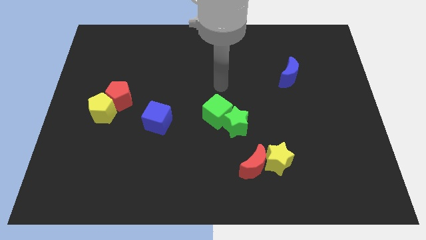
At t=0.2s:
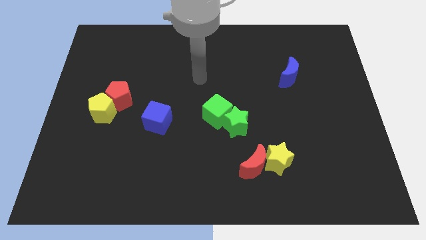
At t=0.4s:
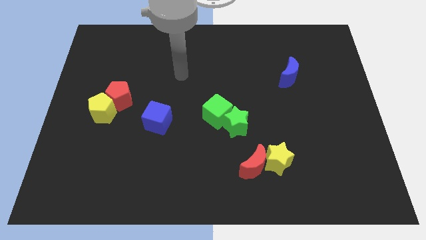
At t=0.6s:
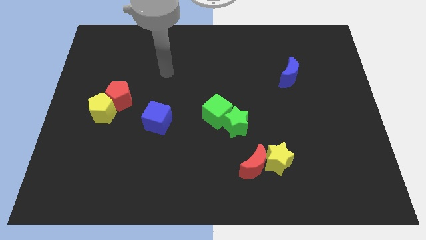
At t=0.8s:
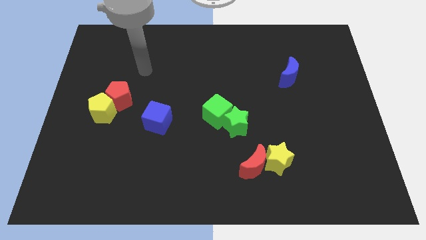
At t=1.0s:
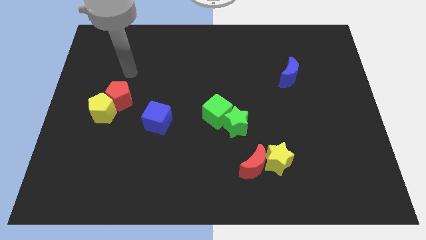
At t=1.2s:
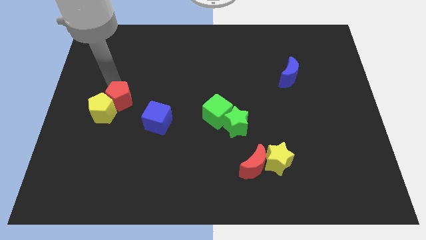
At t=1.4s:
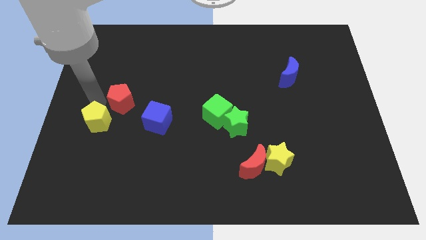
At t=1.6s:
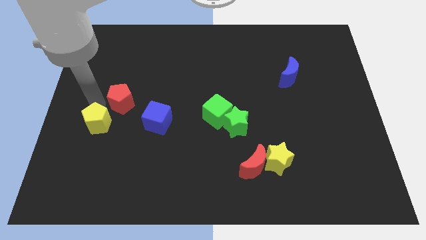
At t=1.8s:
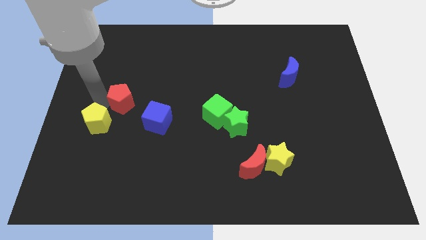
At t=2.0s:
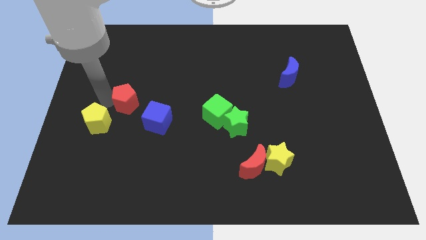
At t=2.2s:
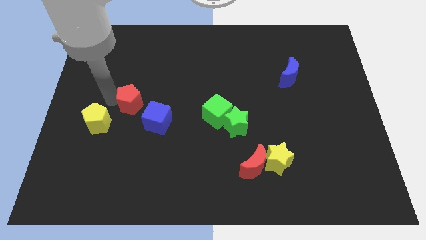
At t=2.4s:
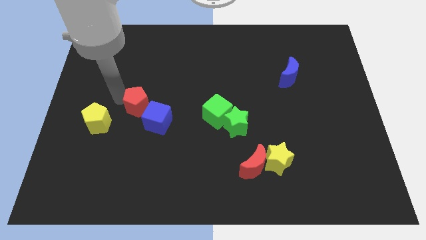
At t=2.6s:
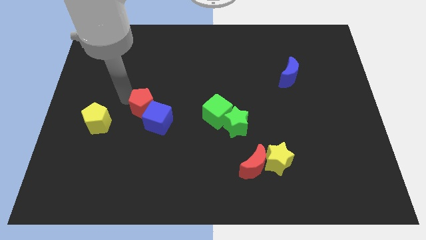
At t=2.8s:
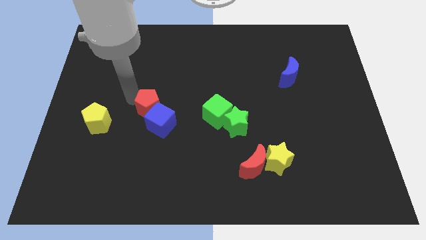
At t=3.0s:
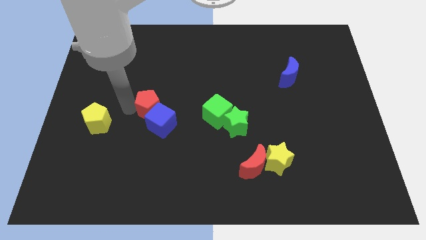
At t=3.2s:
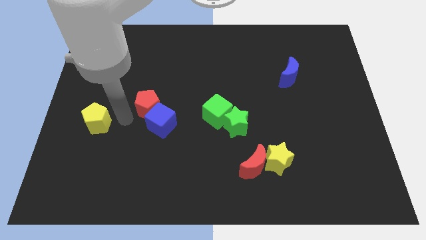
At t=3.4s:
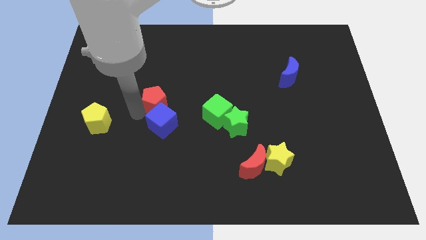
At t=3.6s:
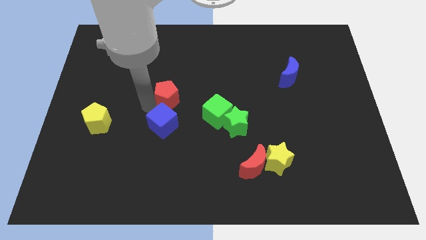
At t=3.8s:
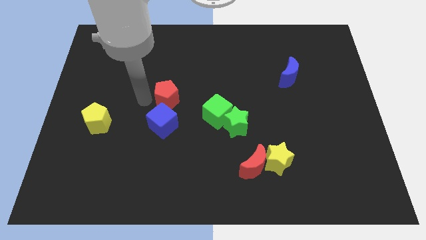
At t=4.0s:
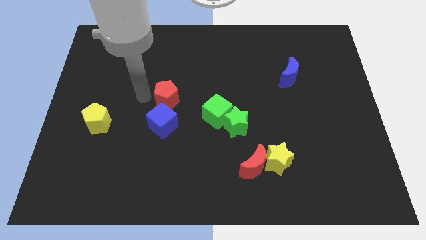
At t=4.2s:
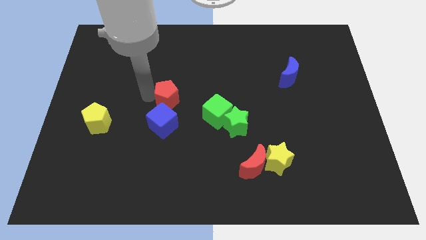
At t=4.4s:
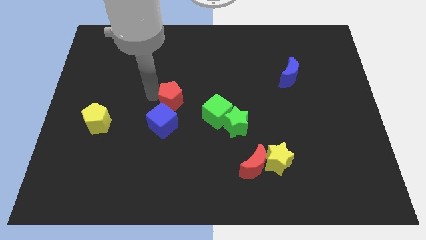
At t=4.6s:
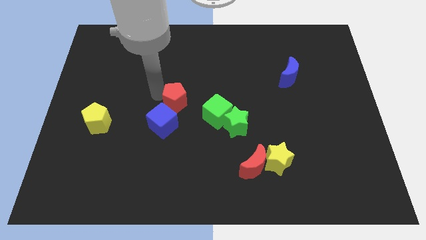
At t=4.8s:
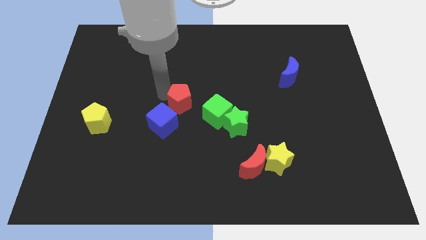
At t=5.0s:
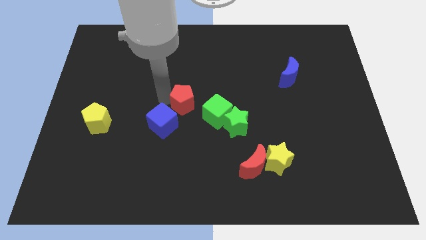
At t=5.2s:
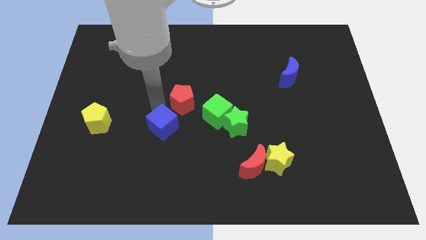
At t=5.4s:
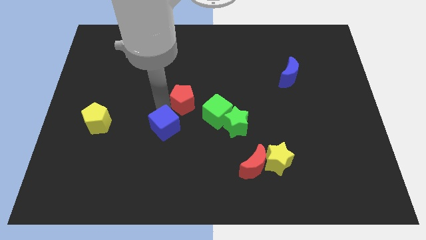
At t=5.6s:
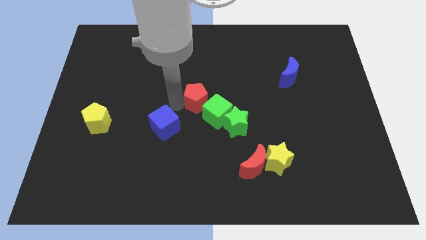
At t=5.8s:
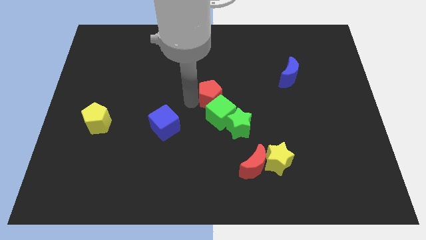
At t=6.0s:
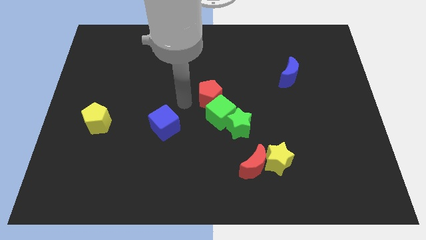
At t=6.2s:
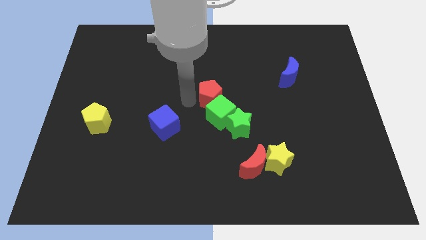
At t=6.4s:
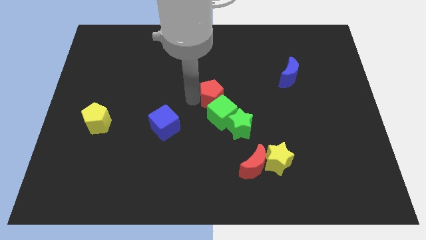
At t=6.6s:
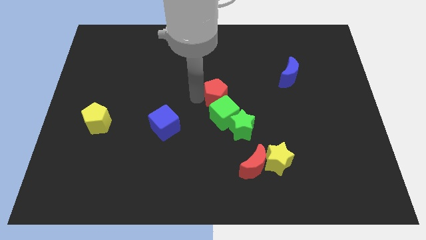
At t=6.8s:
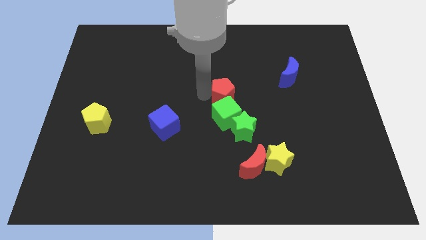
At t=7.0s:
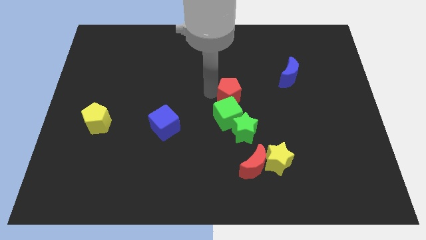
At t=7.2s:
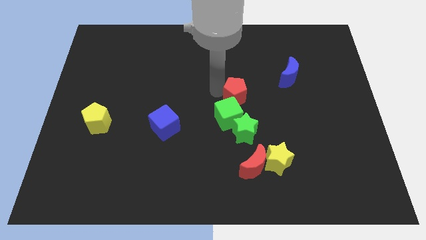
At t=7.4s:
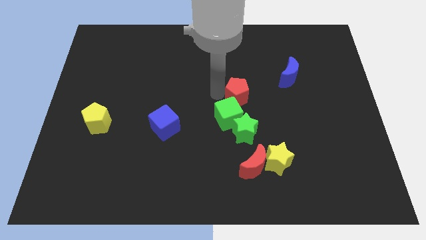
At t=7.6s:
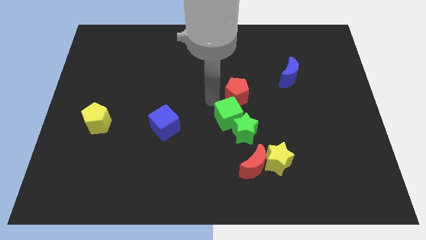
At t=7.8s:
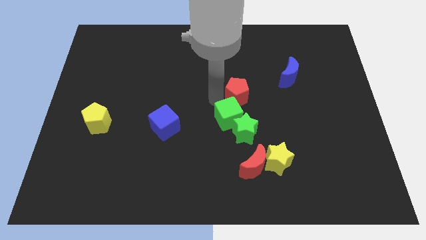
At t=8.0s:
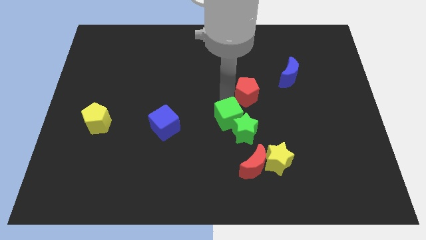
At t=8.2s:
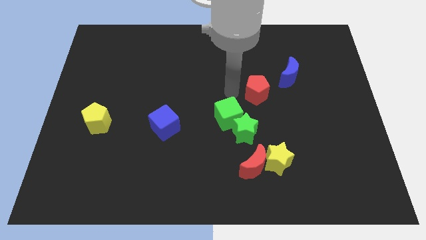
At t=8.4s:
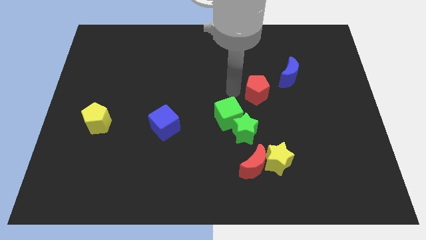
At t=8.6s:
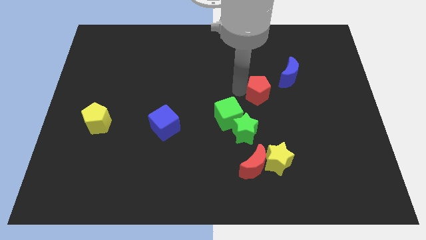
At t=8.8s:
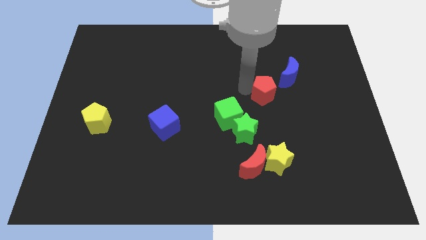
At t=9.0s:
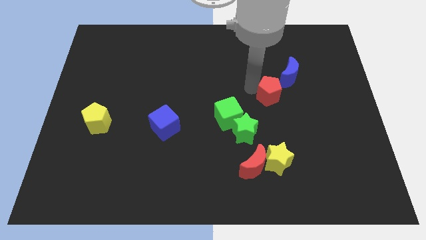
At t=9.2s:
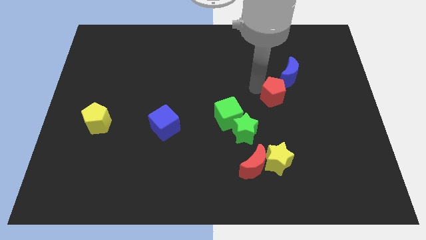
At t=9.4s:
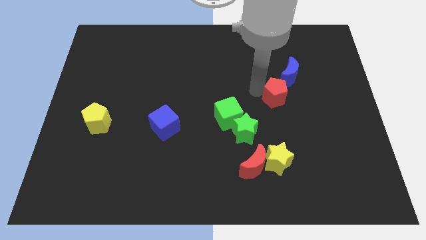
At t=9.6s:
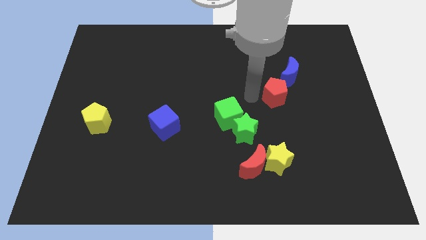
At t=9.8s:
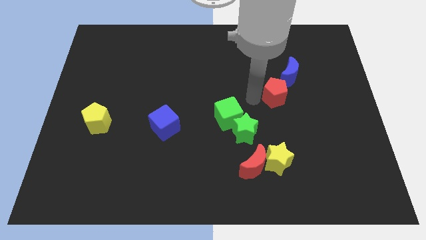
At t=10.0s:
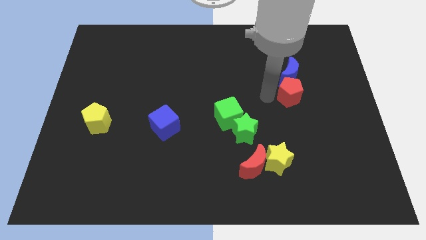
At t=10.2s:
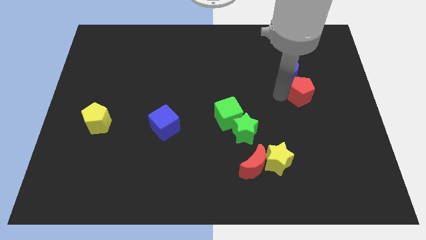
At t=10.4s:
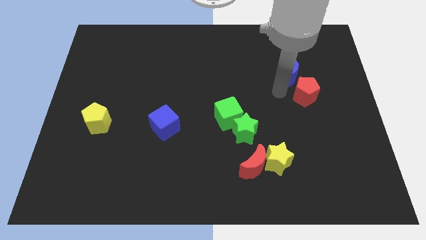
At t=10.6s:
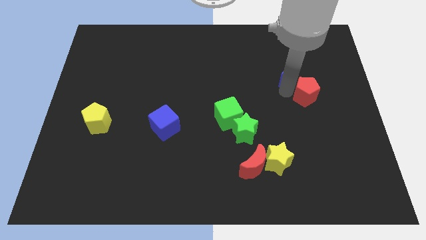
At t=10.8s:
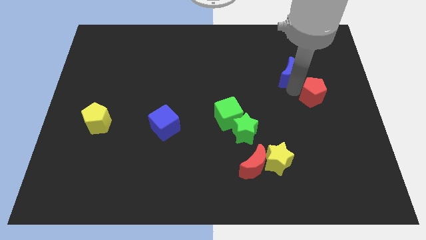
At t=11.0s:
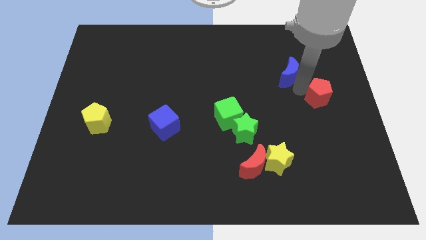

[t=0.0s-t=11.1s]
put the red pentagon to the center right

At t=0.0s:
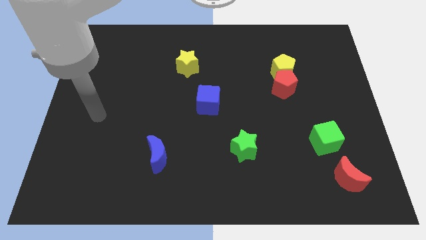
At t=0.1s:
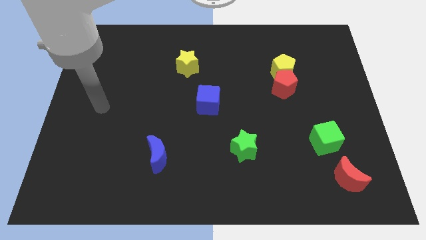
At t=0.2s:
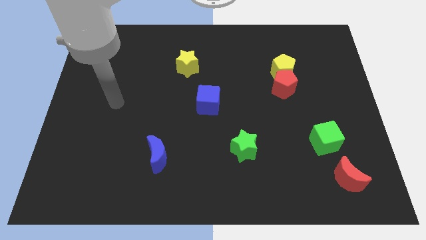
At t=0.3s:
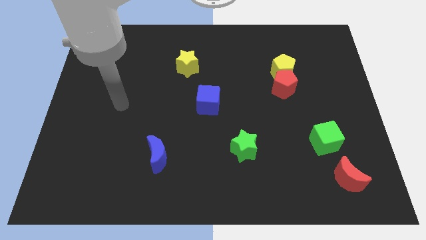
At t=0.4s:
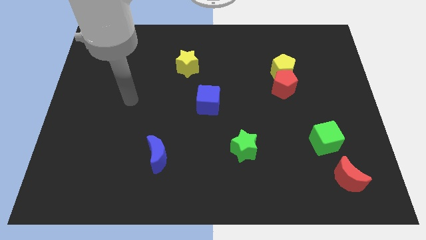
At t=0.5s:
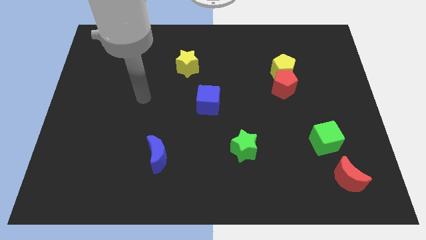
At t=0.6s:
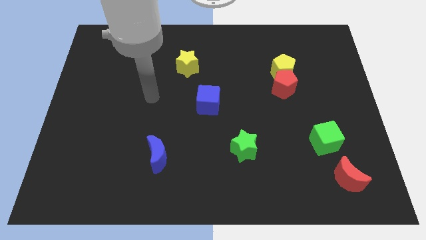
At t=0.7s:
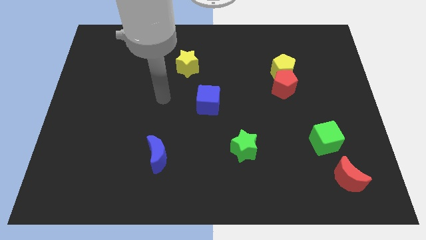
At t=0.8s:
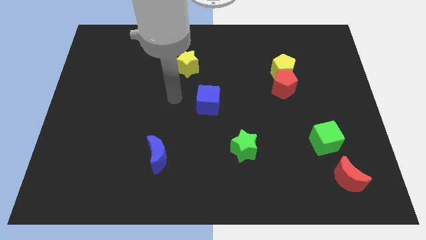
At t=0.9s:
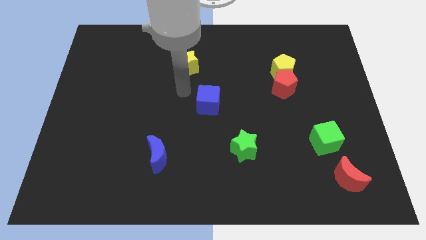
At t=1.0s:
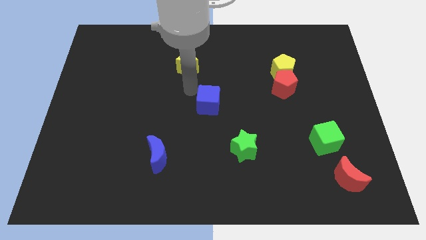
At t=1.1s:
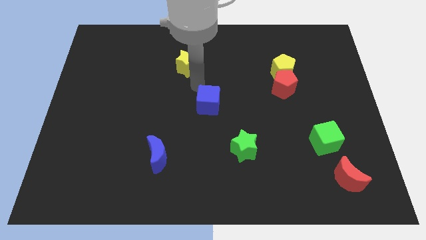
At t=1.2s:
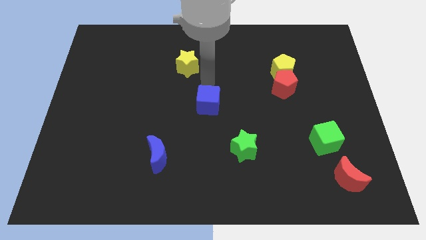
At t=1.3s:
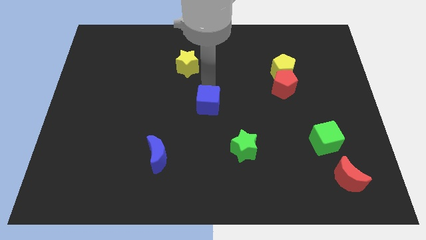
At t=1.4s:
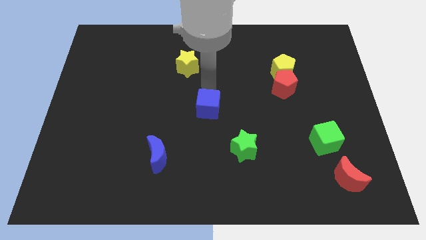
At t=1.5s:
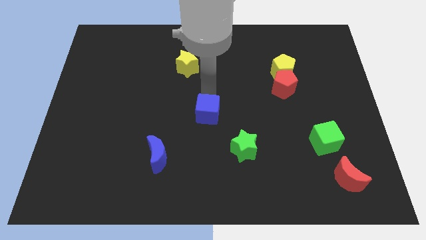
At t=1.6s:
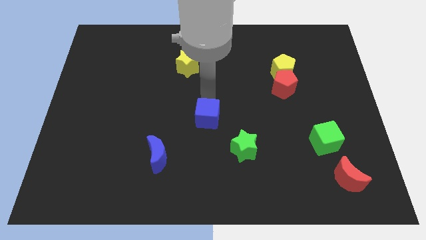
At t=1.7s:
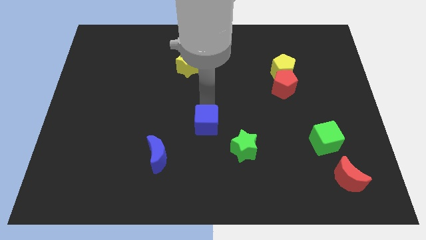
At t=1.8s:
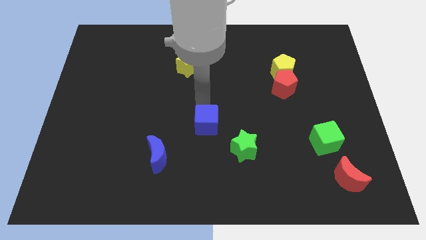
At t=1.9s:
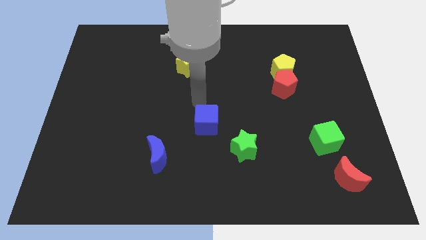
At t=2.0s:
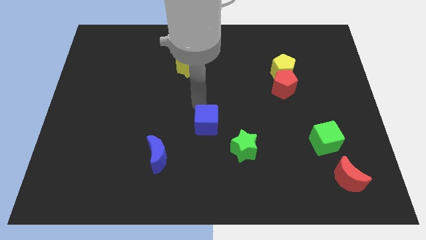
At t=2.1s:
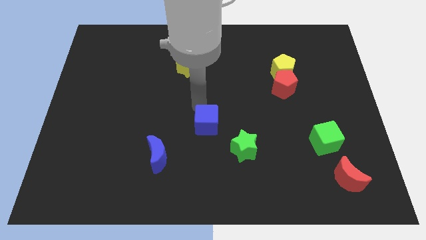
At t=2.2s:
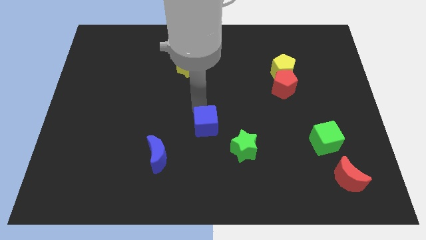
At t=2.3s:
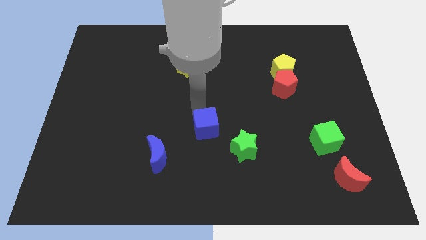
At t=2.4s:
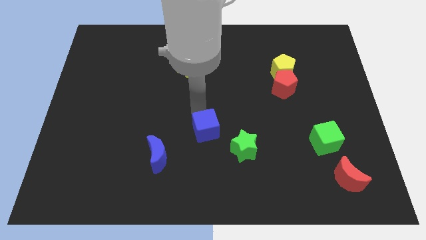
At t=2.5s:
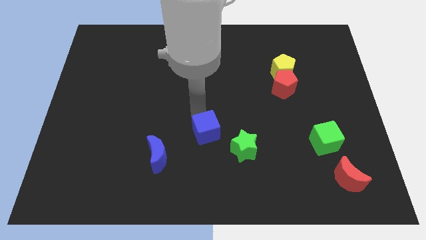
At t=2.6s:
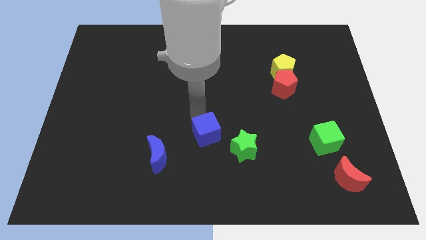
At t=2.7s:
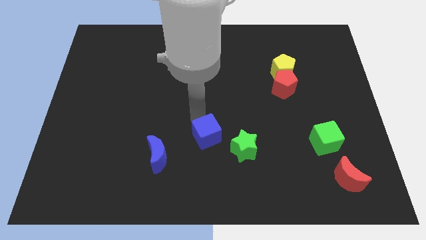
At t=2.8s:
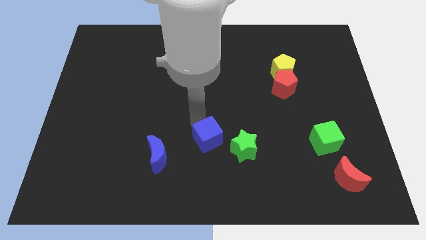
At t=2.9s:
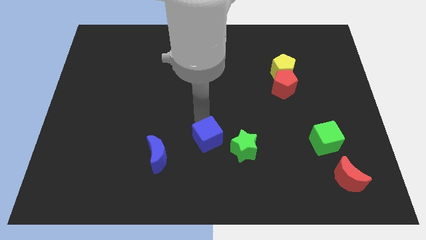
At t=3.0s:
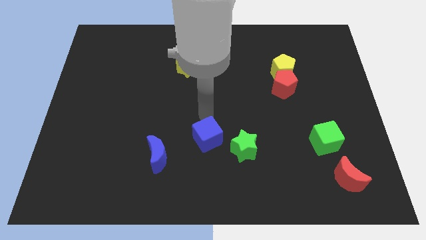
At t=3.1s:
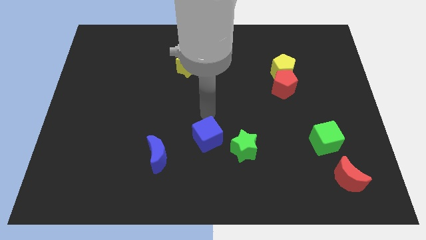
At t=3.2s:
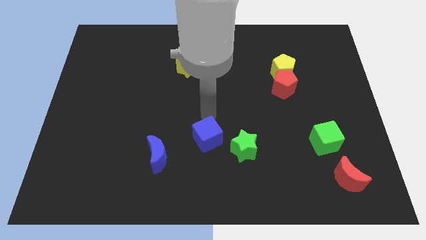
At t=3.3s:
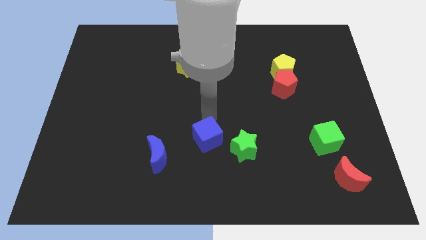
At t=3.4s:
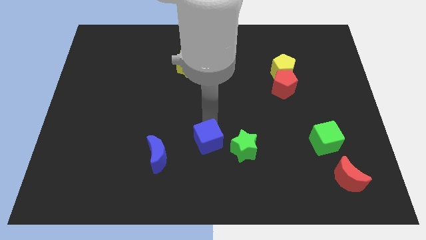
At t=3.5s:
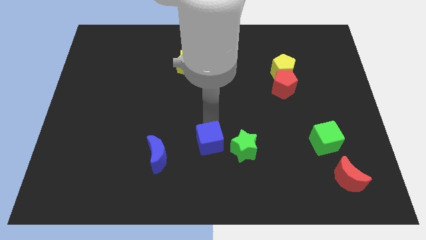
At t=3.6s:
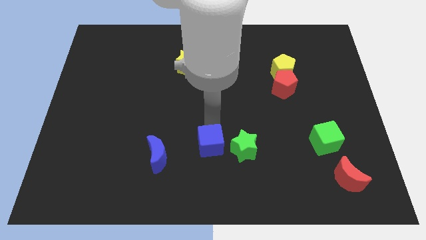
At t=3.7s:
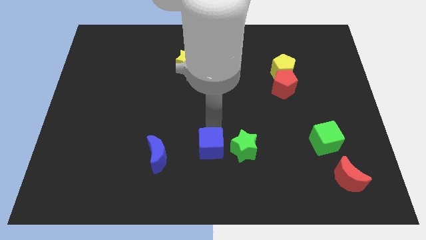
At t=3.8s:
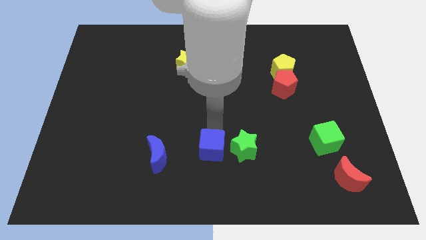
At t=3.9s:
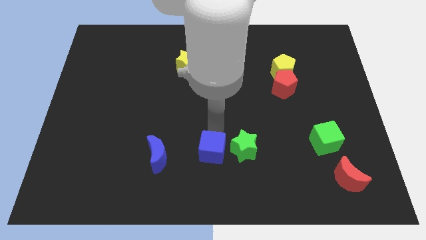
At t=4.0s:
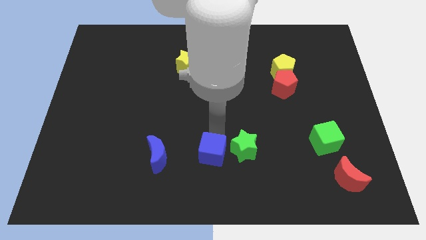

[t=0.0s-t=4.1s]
move the blue cube to the bottom side
